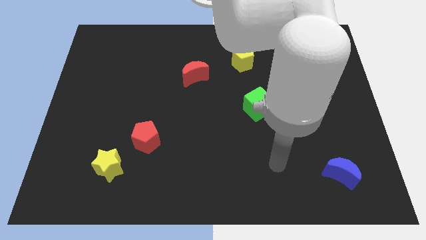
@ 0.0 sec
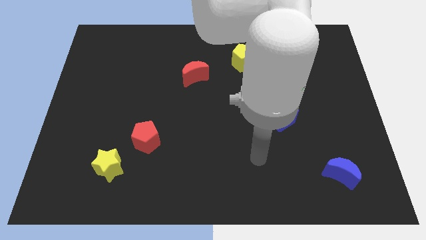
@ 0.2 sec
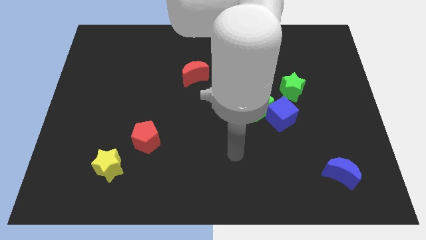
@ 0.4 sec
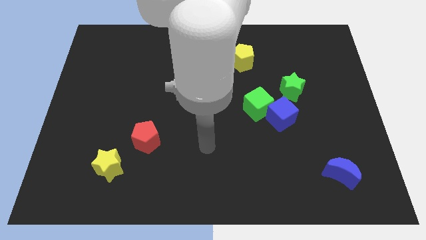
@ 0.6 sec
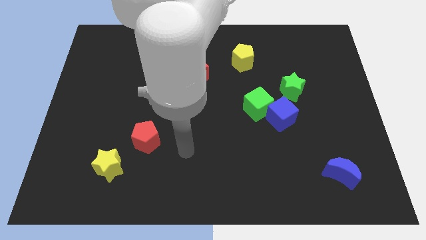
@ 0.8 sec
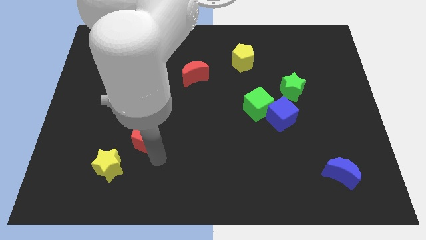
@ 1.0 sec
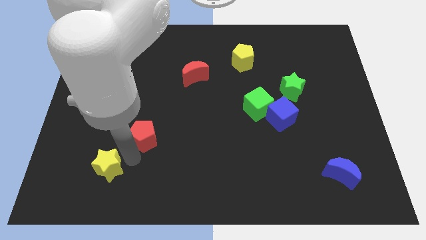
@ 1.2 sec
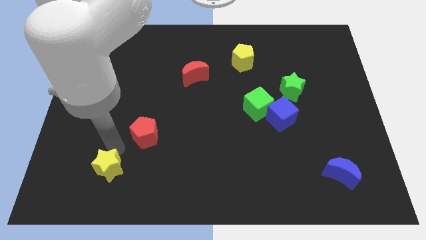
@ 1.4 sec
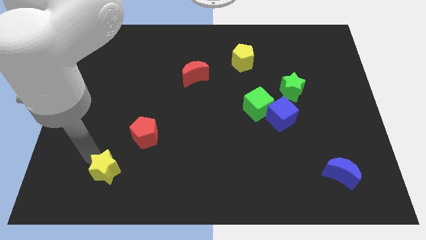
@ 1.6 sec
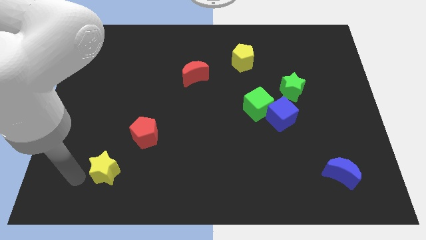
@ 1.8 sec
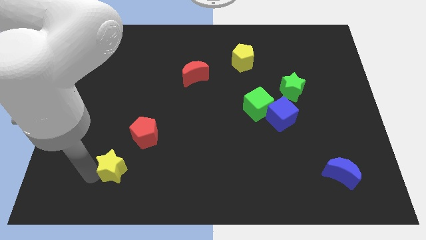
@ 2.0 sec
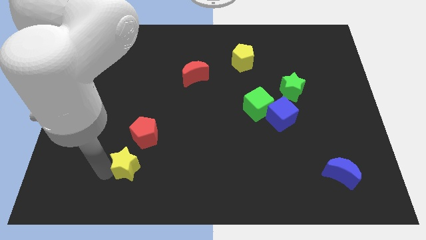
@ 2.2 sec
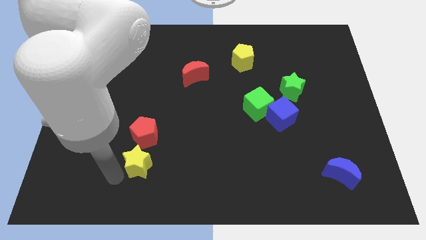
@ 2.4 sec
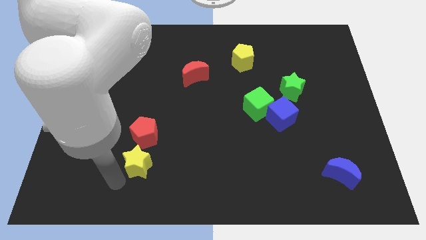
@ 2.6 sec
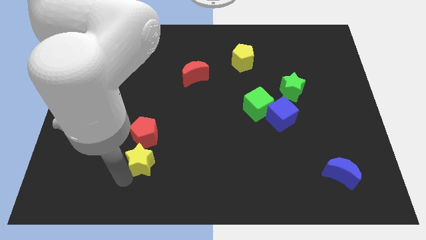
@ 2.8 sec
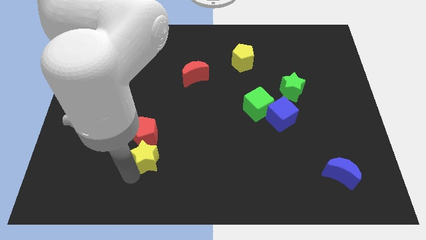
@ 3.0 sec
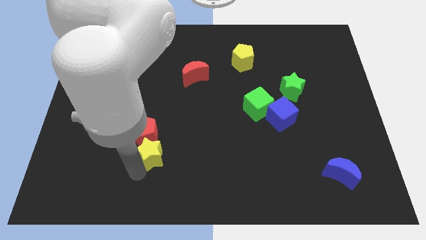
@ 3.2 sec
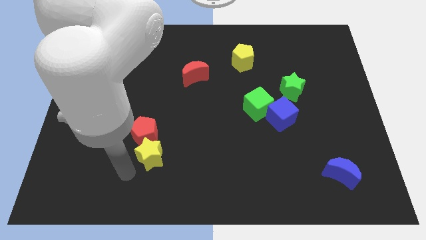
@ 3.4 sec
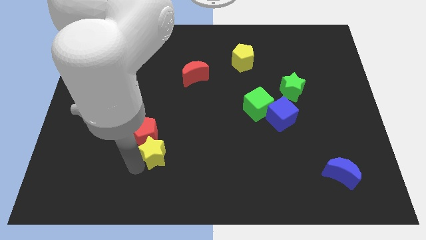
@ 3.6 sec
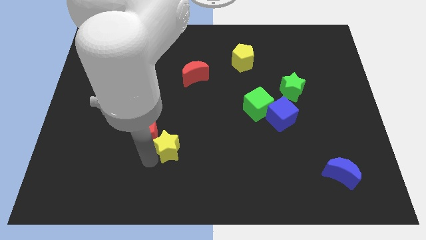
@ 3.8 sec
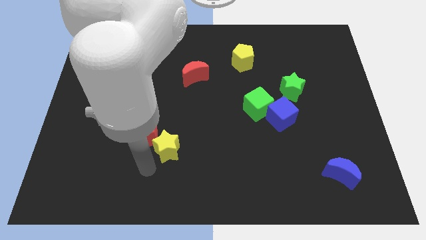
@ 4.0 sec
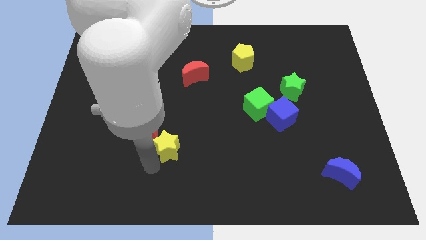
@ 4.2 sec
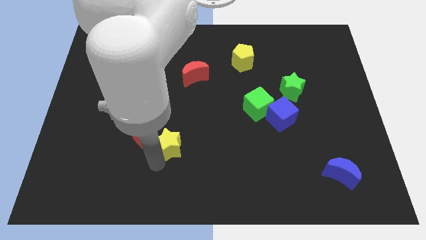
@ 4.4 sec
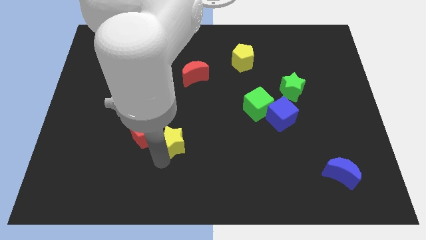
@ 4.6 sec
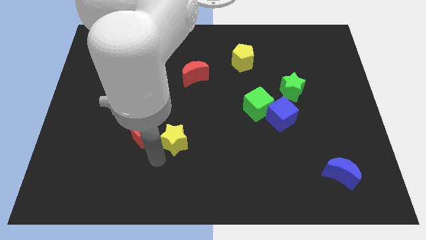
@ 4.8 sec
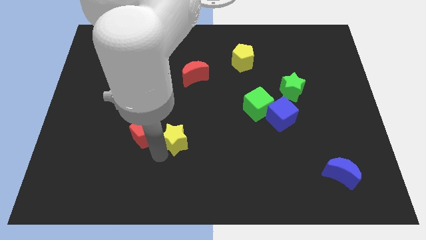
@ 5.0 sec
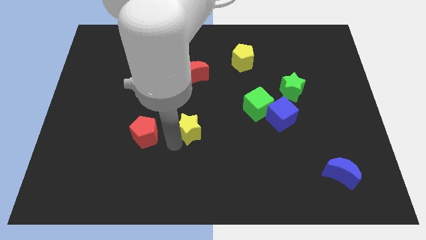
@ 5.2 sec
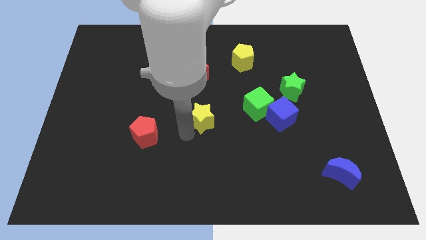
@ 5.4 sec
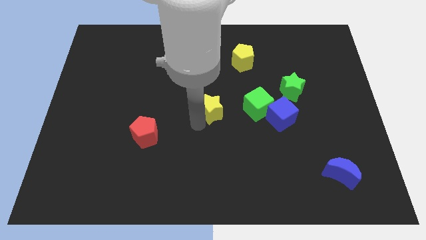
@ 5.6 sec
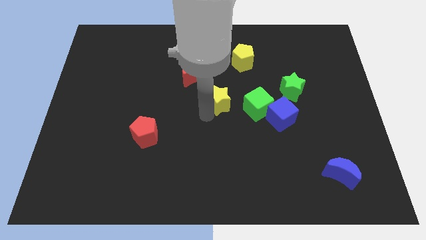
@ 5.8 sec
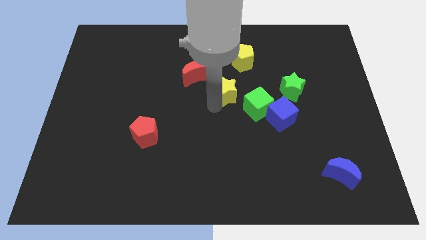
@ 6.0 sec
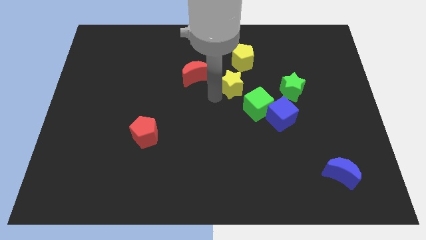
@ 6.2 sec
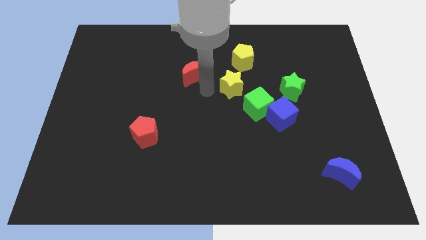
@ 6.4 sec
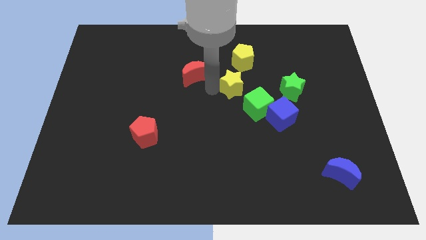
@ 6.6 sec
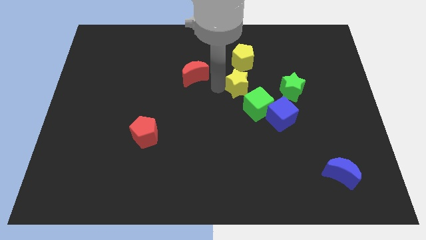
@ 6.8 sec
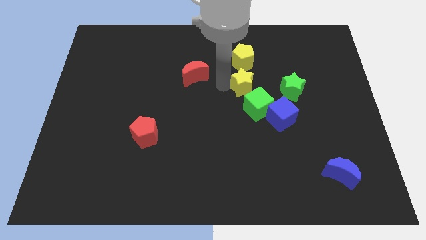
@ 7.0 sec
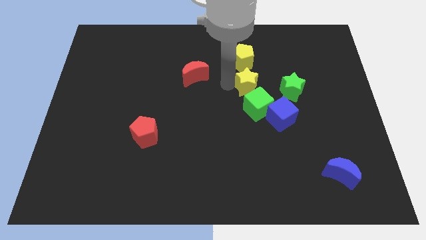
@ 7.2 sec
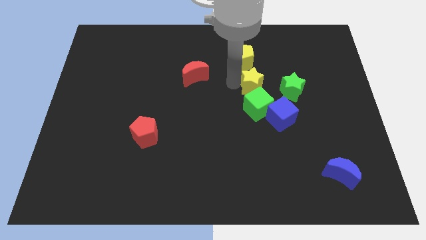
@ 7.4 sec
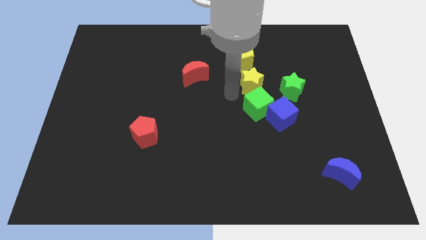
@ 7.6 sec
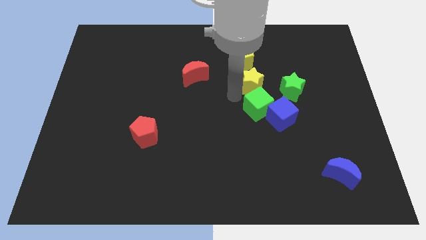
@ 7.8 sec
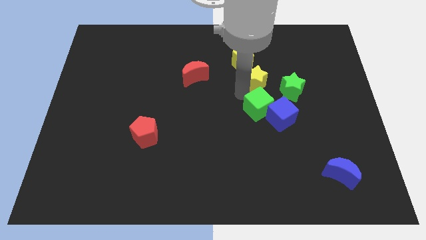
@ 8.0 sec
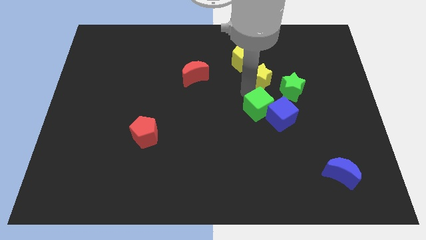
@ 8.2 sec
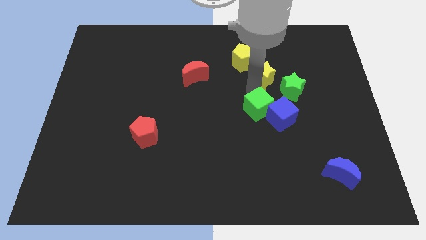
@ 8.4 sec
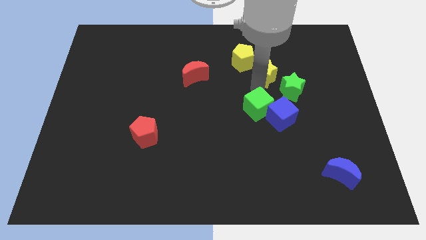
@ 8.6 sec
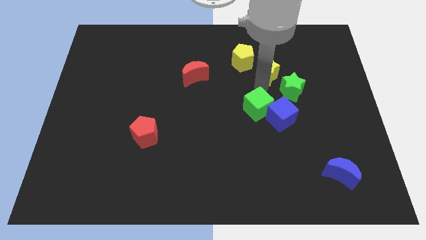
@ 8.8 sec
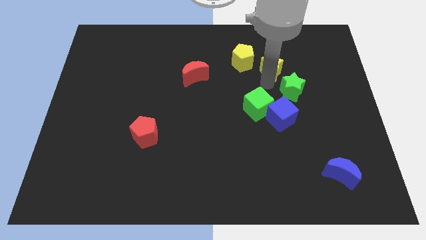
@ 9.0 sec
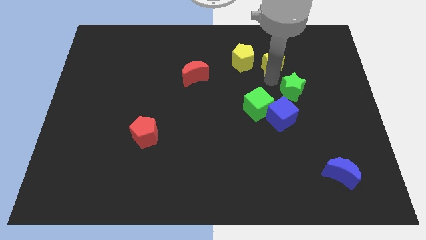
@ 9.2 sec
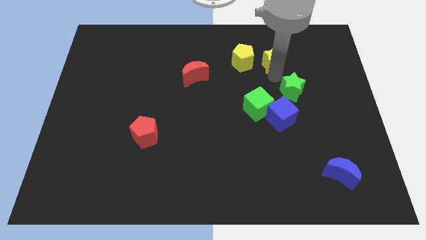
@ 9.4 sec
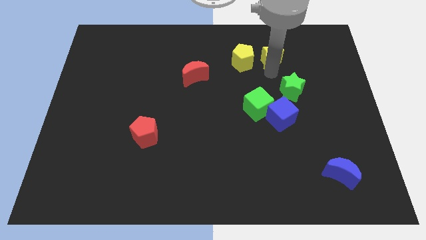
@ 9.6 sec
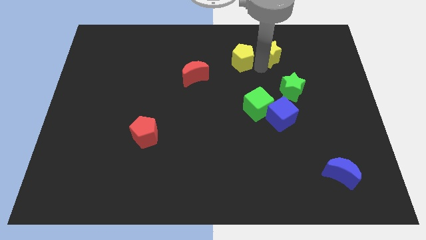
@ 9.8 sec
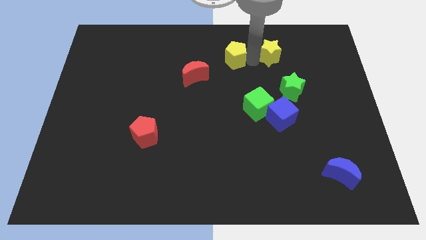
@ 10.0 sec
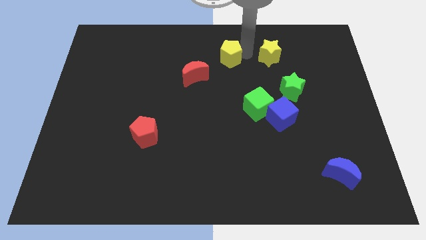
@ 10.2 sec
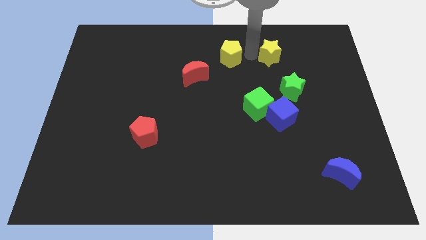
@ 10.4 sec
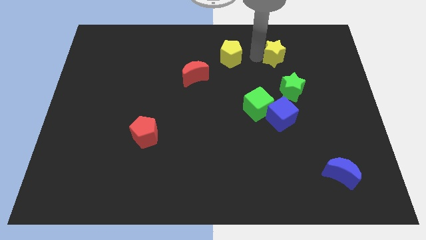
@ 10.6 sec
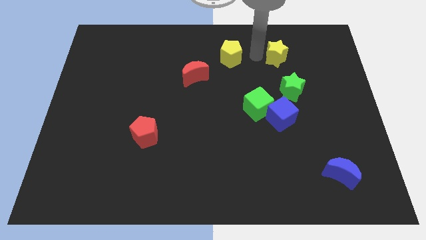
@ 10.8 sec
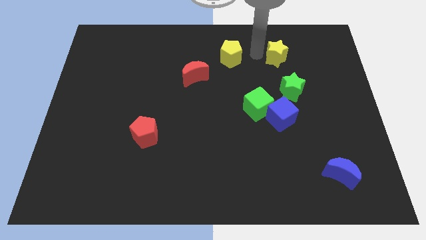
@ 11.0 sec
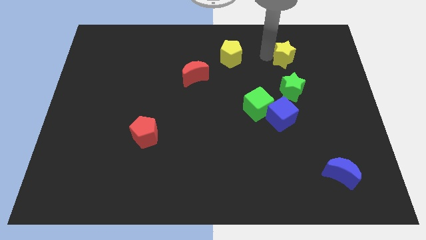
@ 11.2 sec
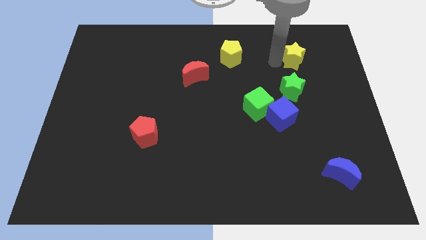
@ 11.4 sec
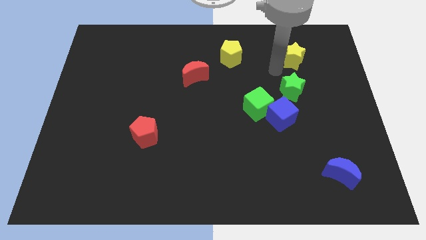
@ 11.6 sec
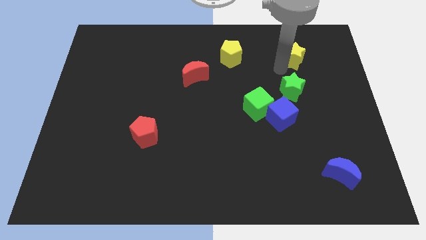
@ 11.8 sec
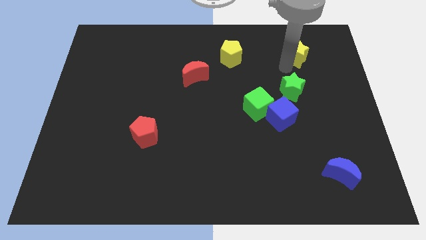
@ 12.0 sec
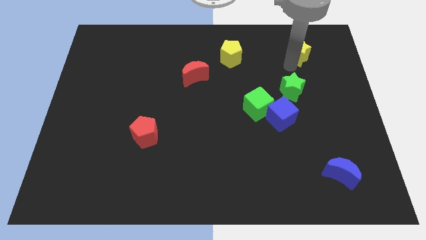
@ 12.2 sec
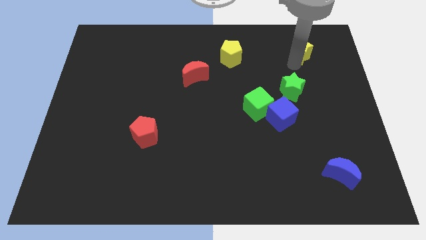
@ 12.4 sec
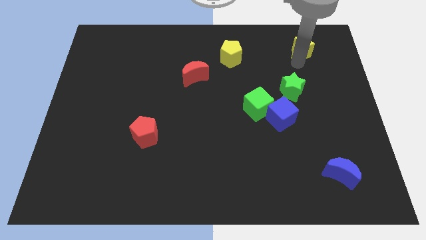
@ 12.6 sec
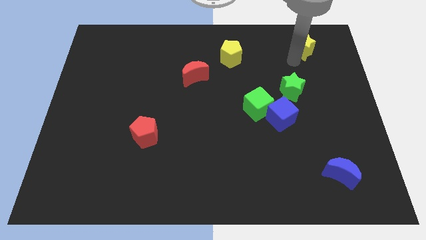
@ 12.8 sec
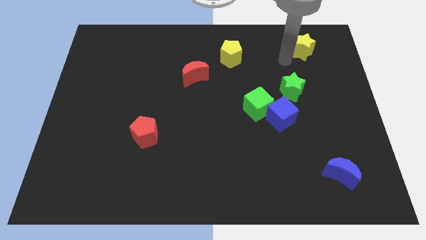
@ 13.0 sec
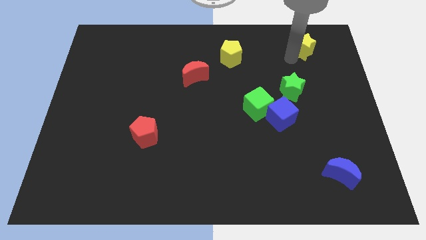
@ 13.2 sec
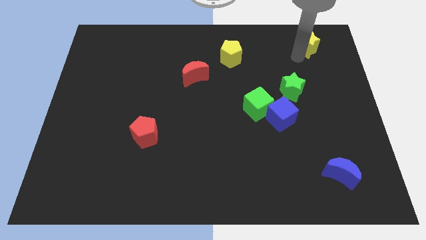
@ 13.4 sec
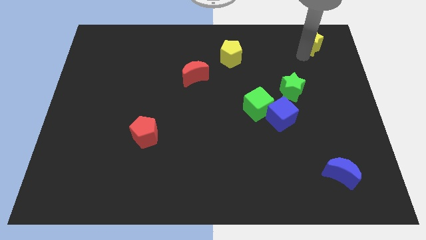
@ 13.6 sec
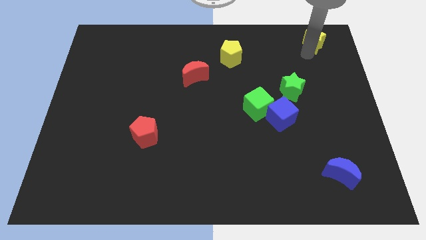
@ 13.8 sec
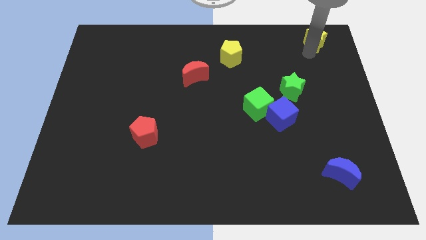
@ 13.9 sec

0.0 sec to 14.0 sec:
slide the yellow star to the top right corner
